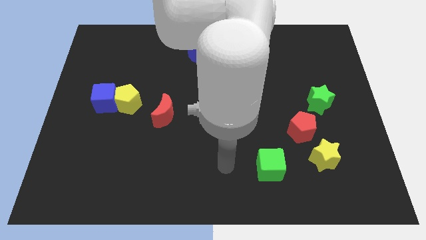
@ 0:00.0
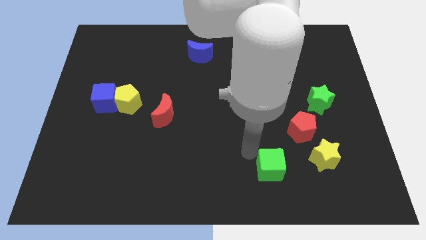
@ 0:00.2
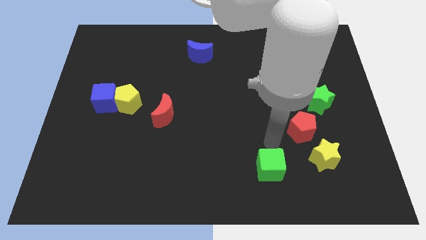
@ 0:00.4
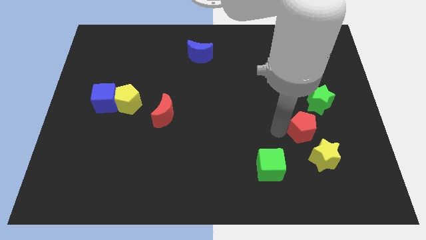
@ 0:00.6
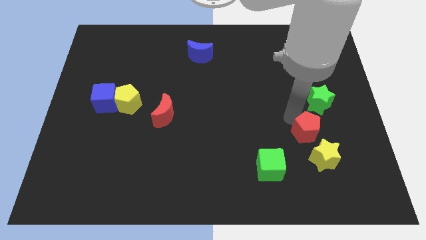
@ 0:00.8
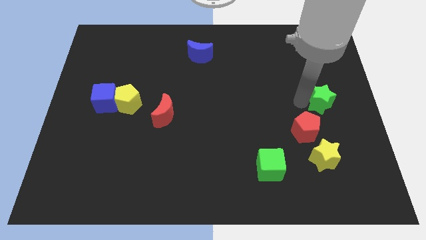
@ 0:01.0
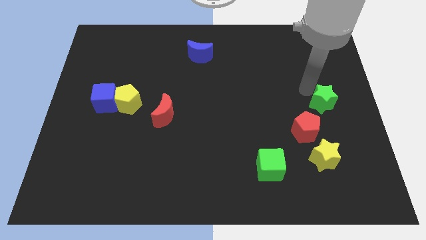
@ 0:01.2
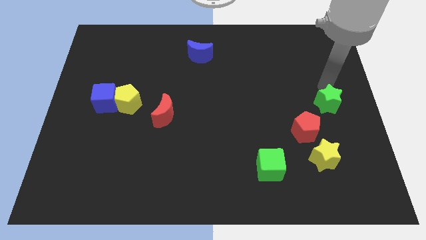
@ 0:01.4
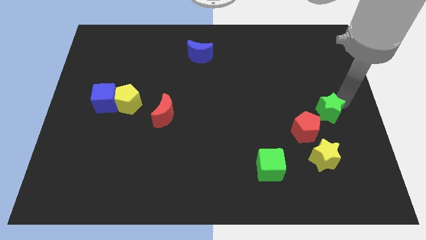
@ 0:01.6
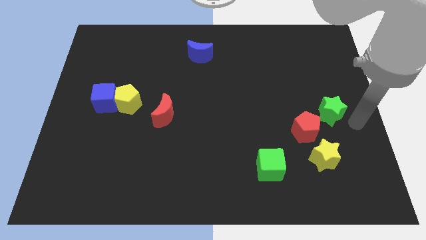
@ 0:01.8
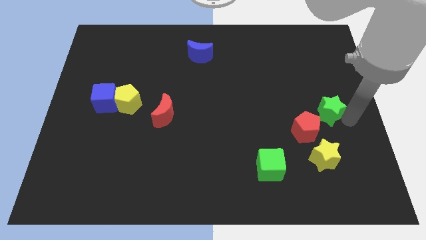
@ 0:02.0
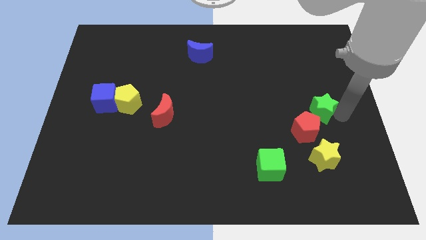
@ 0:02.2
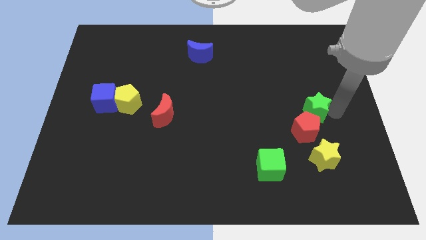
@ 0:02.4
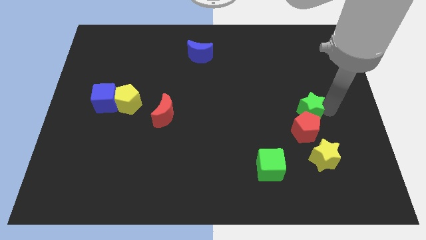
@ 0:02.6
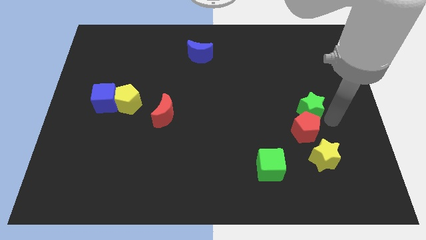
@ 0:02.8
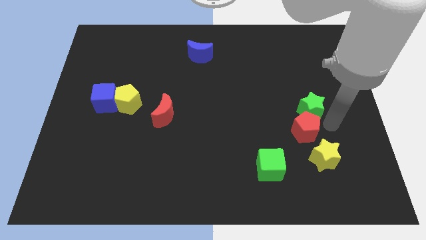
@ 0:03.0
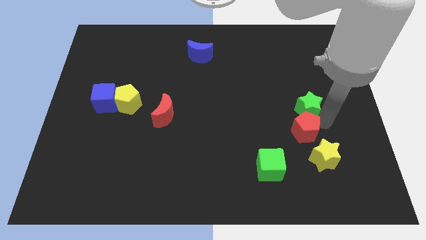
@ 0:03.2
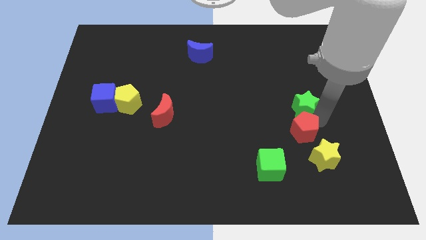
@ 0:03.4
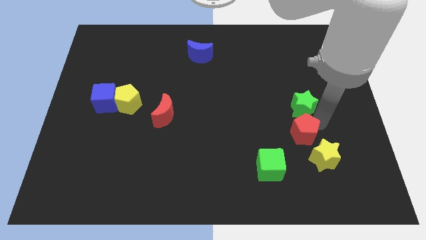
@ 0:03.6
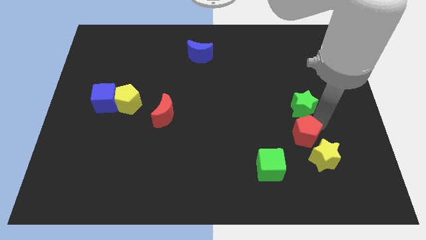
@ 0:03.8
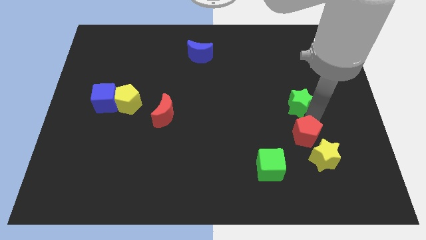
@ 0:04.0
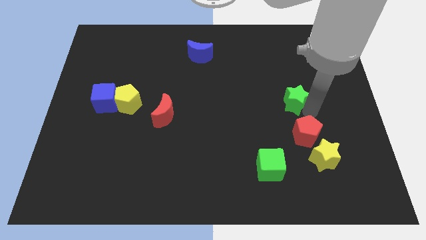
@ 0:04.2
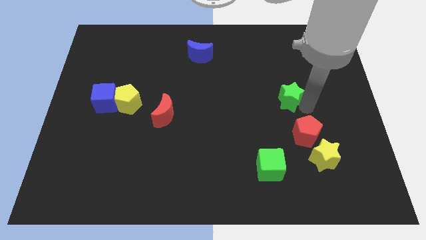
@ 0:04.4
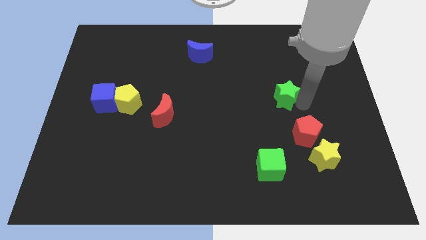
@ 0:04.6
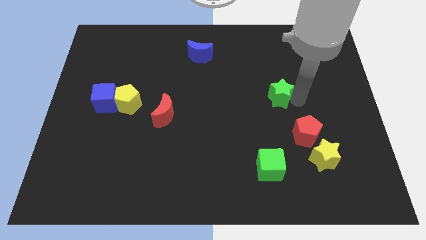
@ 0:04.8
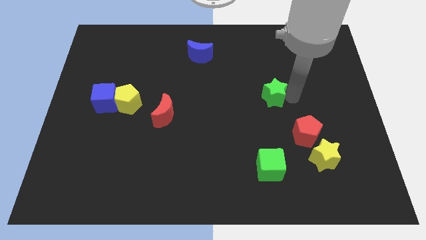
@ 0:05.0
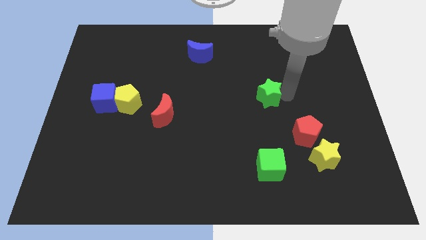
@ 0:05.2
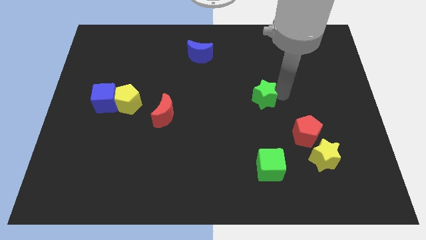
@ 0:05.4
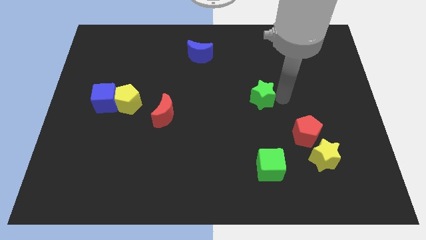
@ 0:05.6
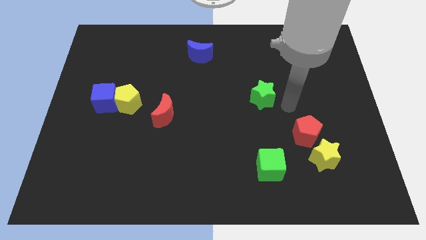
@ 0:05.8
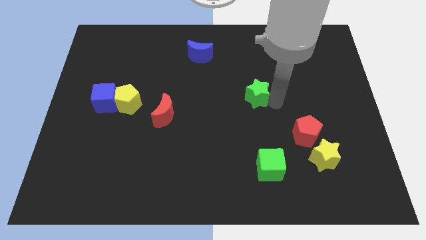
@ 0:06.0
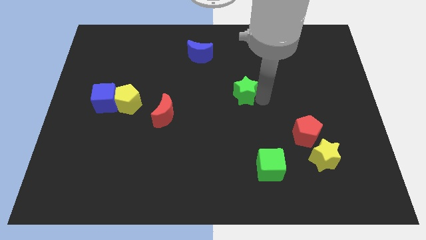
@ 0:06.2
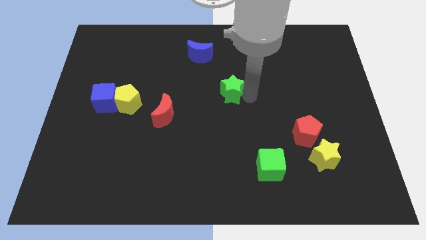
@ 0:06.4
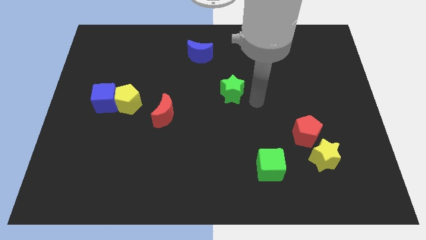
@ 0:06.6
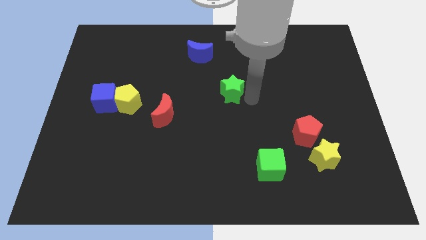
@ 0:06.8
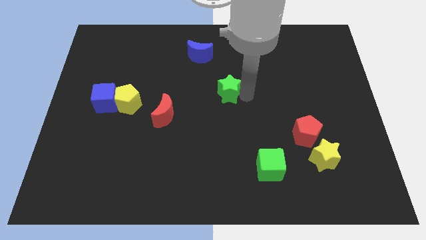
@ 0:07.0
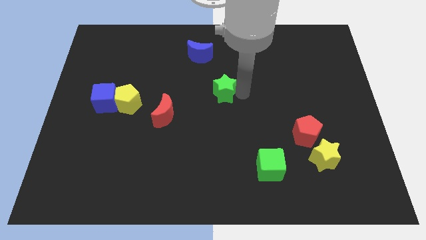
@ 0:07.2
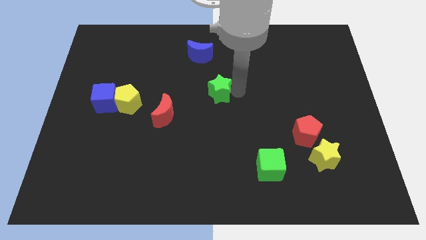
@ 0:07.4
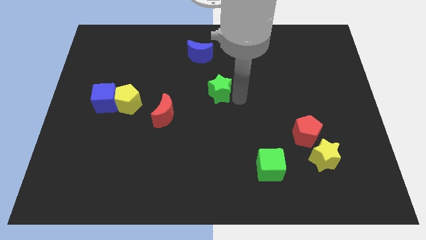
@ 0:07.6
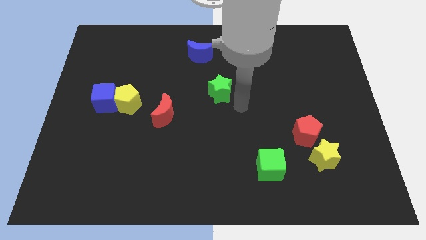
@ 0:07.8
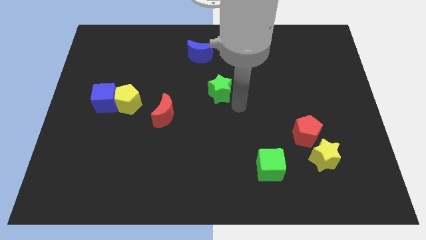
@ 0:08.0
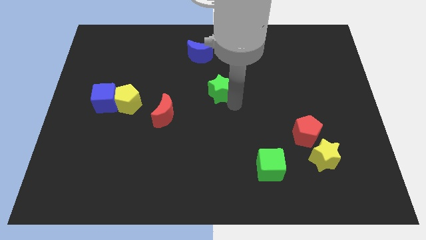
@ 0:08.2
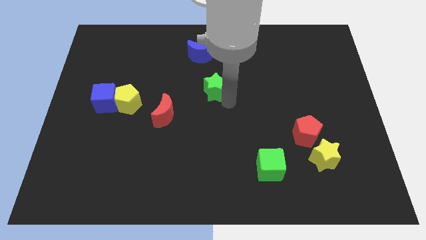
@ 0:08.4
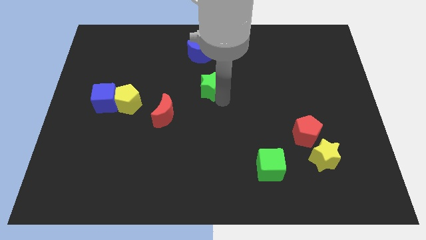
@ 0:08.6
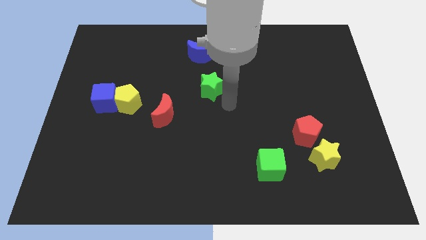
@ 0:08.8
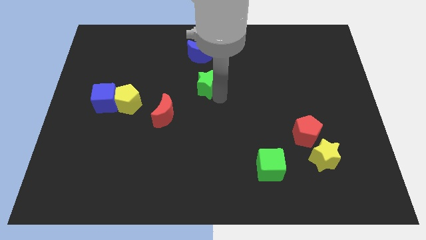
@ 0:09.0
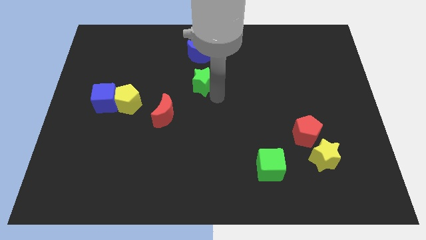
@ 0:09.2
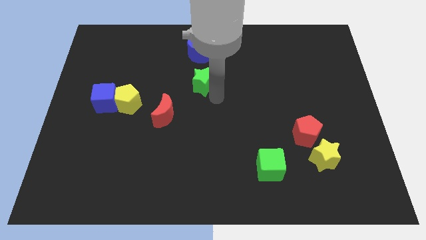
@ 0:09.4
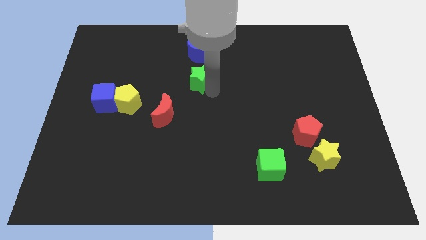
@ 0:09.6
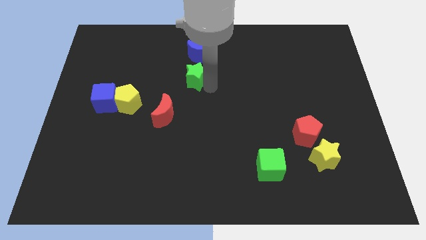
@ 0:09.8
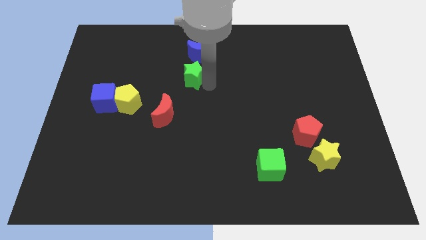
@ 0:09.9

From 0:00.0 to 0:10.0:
slide the green star to the bottom left of the blue moon

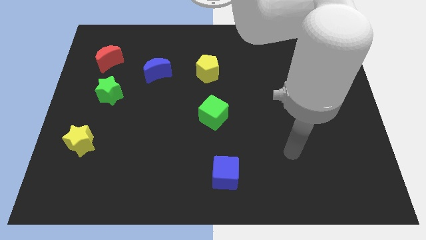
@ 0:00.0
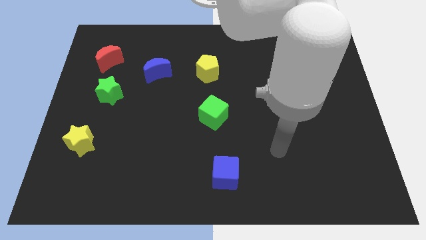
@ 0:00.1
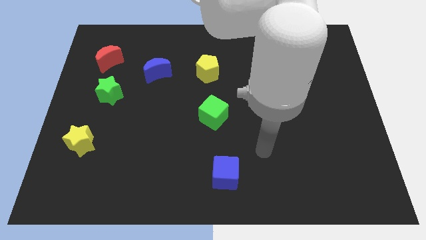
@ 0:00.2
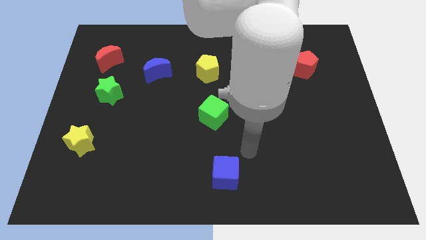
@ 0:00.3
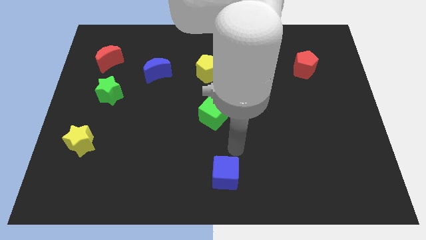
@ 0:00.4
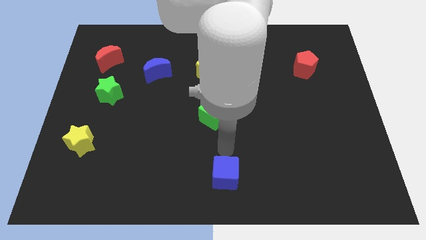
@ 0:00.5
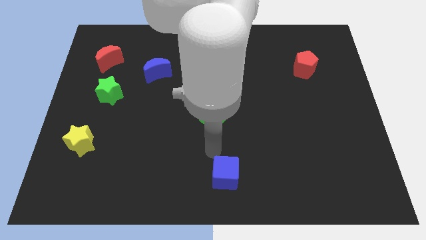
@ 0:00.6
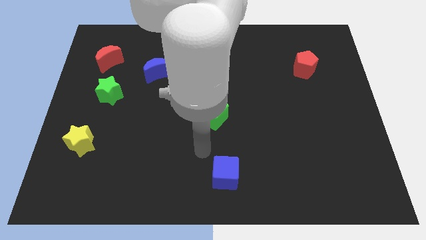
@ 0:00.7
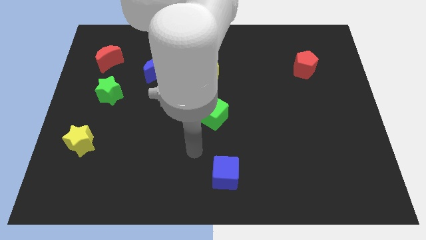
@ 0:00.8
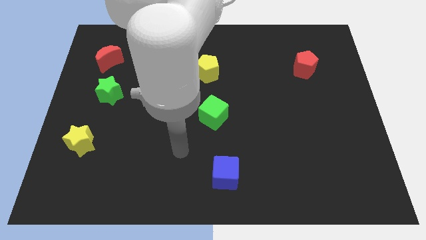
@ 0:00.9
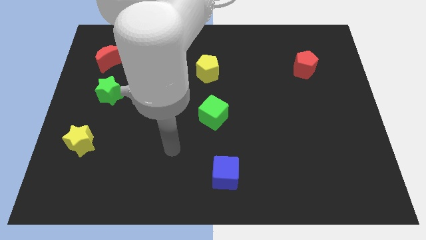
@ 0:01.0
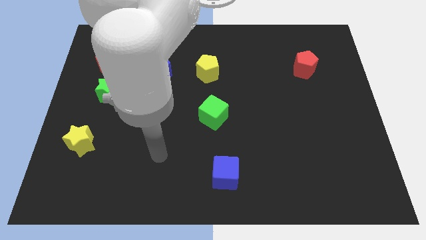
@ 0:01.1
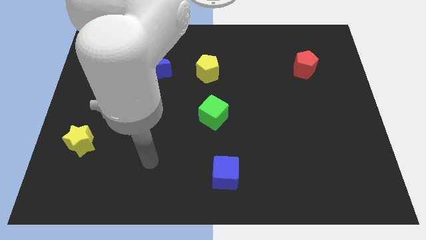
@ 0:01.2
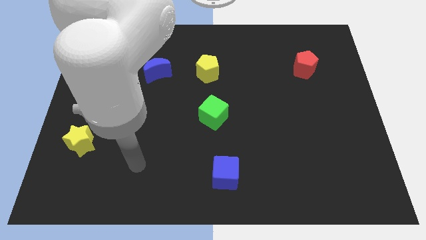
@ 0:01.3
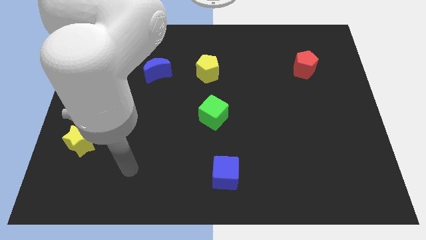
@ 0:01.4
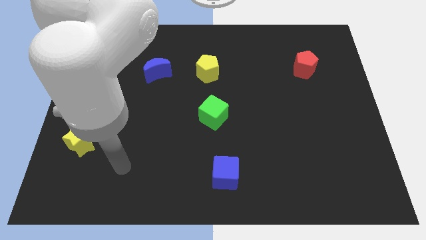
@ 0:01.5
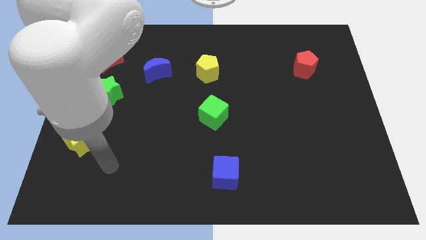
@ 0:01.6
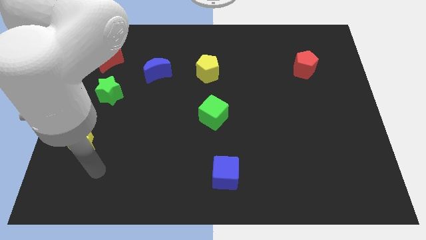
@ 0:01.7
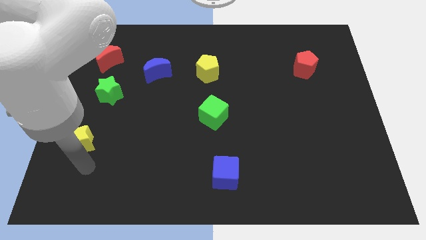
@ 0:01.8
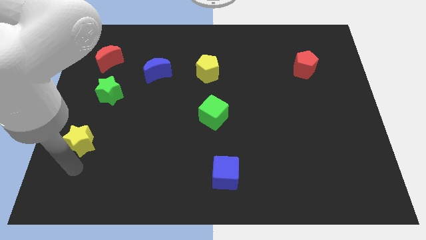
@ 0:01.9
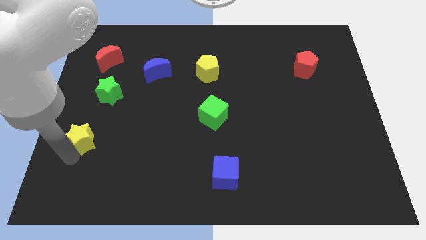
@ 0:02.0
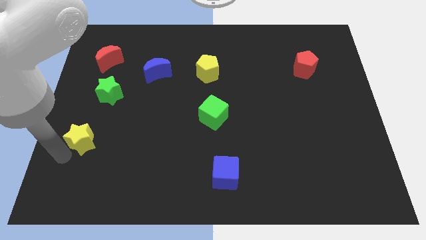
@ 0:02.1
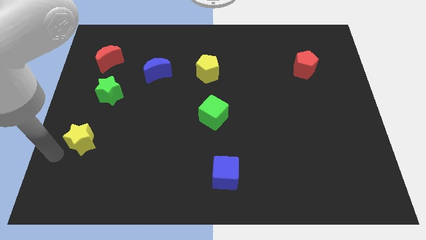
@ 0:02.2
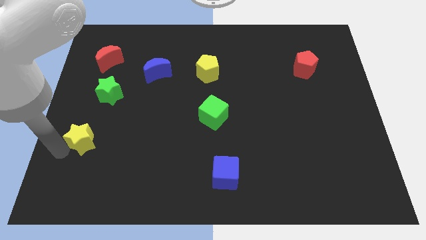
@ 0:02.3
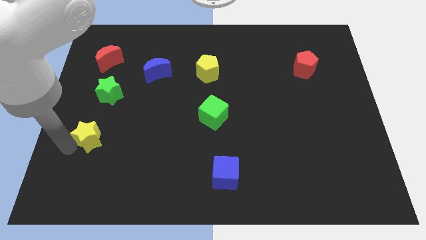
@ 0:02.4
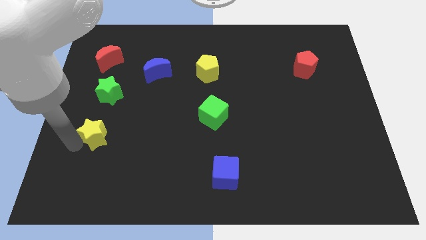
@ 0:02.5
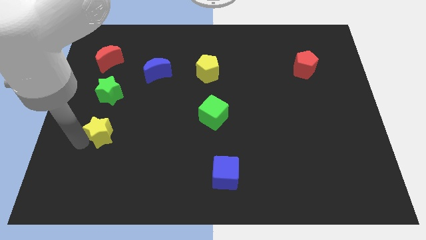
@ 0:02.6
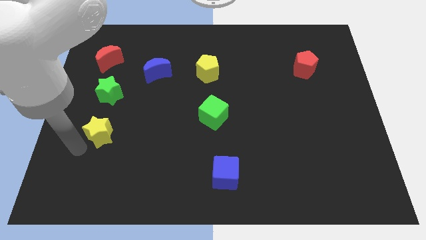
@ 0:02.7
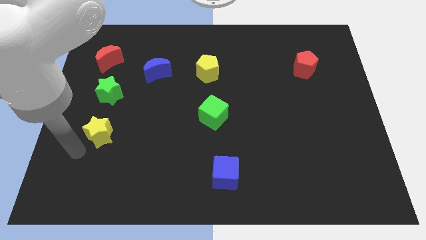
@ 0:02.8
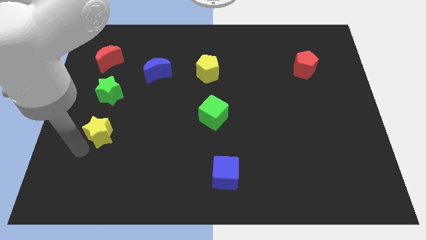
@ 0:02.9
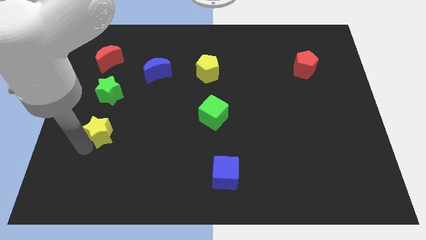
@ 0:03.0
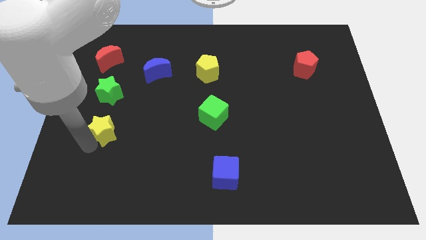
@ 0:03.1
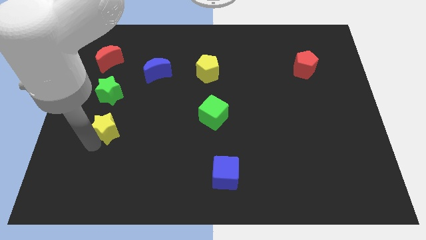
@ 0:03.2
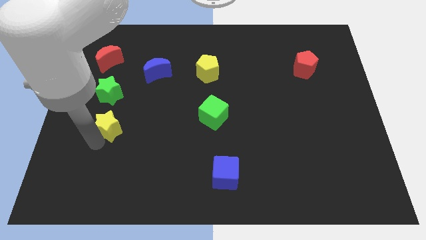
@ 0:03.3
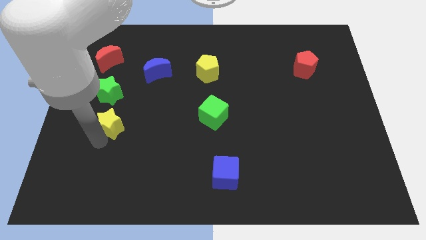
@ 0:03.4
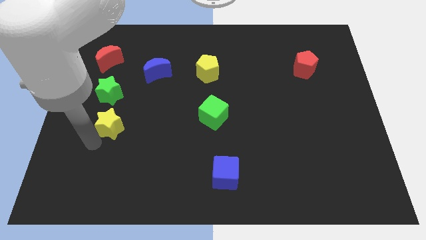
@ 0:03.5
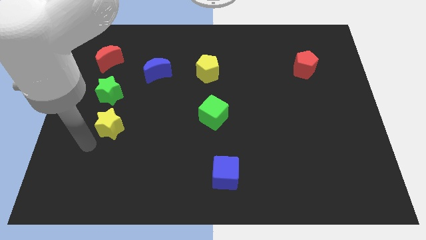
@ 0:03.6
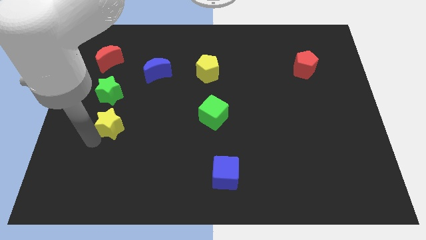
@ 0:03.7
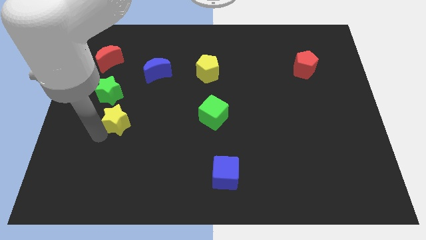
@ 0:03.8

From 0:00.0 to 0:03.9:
move the yellow star to the bottom right side of the green star
